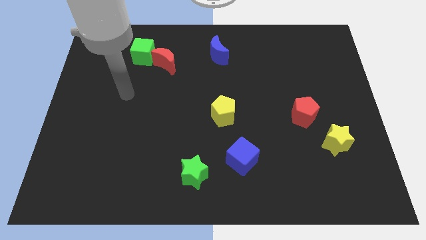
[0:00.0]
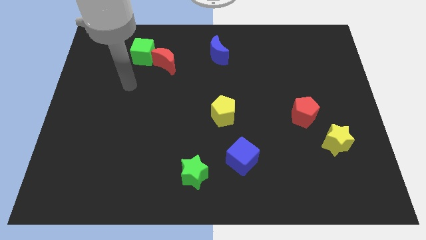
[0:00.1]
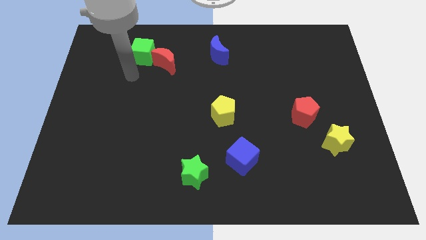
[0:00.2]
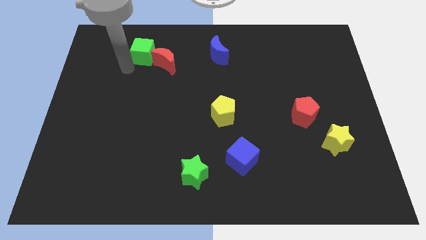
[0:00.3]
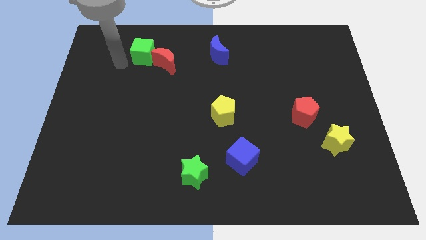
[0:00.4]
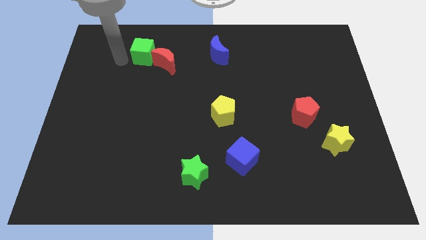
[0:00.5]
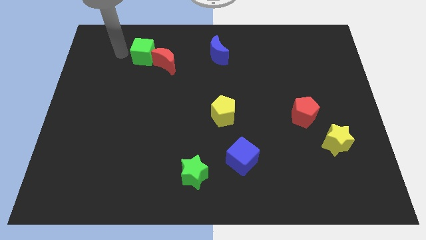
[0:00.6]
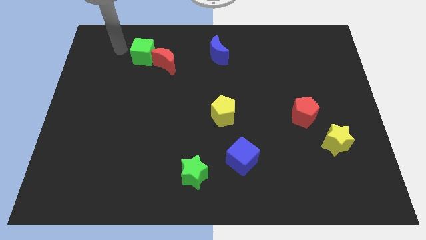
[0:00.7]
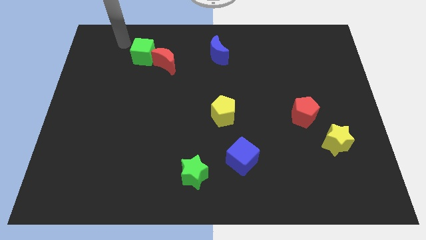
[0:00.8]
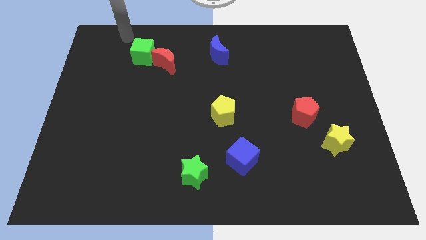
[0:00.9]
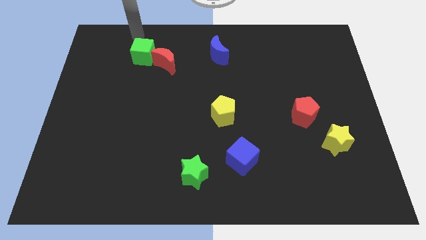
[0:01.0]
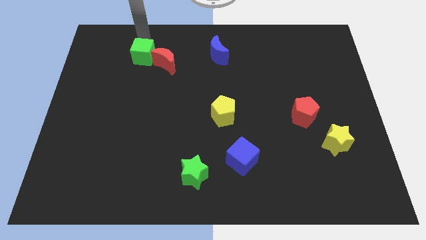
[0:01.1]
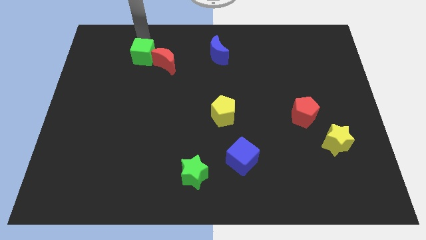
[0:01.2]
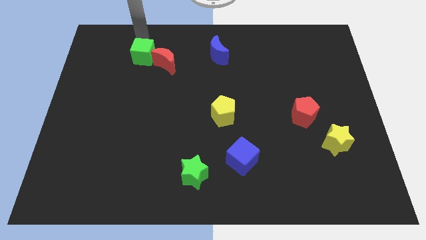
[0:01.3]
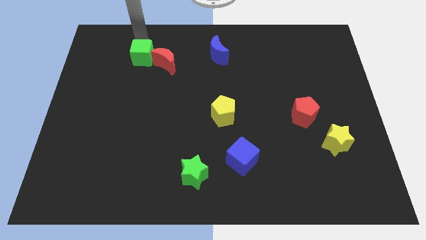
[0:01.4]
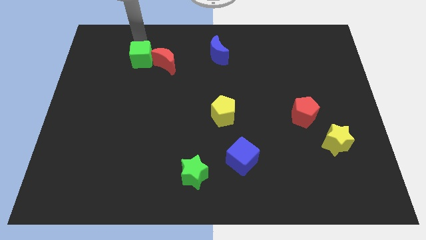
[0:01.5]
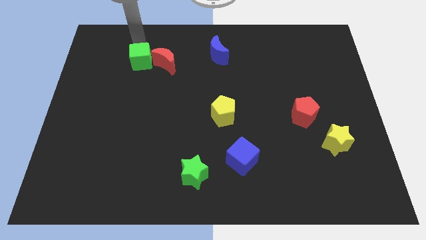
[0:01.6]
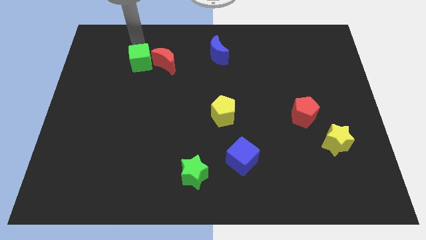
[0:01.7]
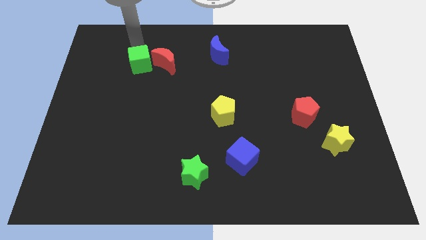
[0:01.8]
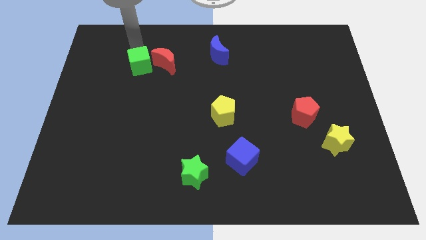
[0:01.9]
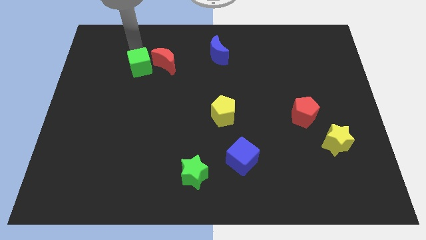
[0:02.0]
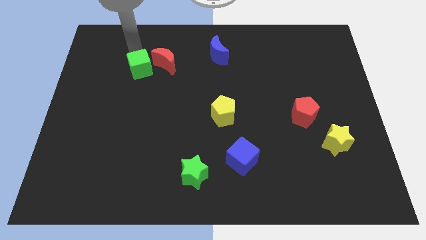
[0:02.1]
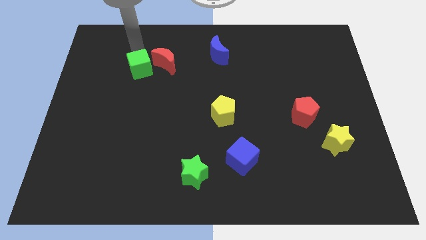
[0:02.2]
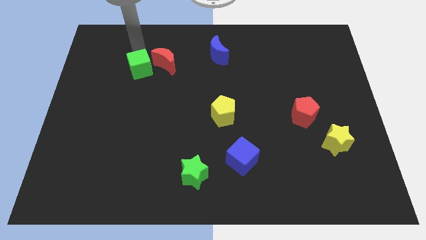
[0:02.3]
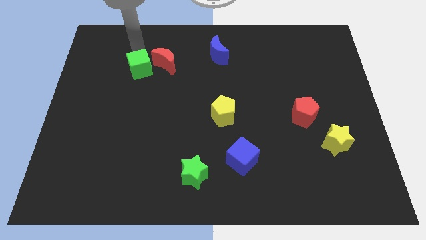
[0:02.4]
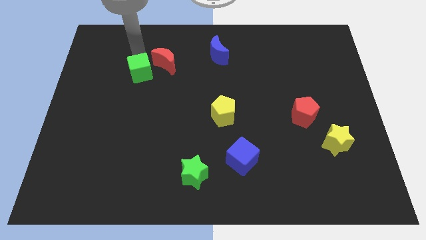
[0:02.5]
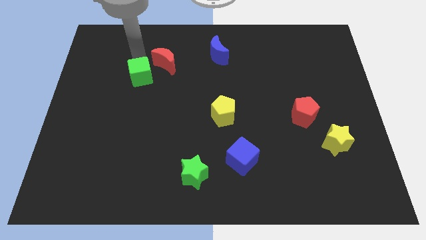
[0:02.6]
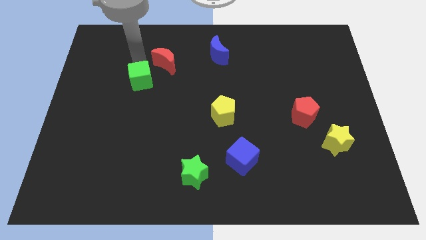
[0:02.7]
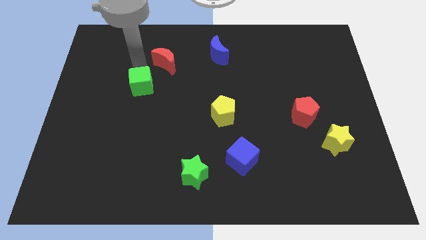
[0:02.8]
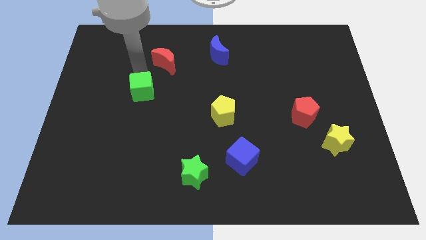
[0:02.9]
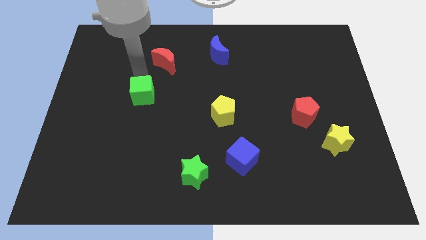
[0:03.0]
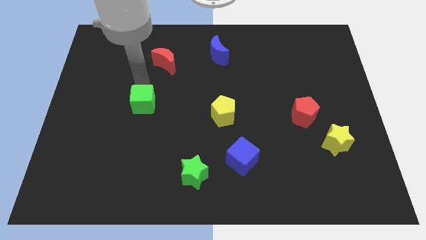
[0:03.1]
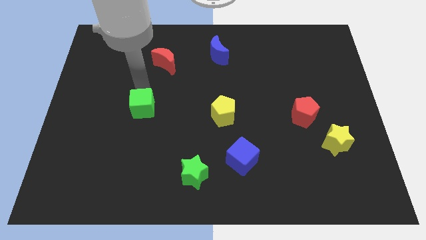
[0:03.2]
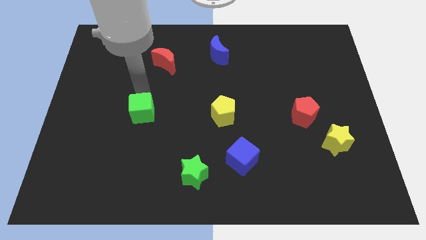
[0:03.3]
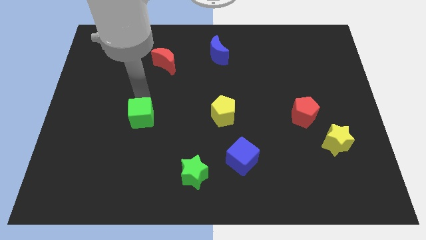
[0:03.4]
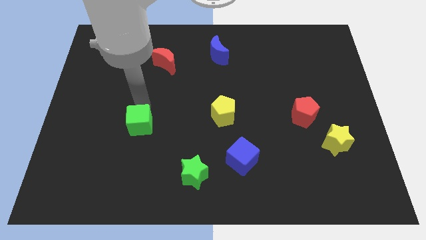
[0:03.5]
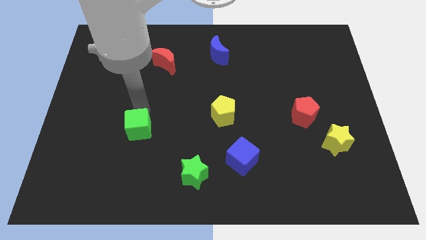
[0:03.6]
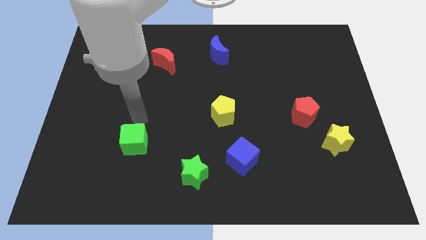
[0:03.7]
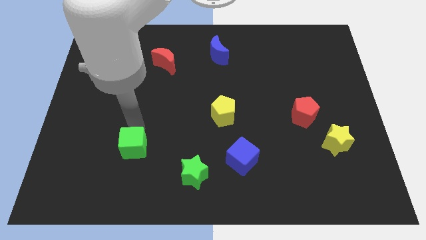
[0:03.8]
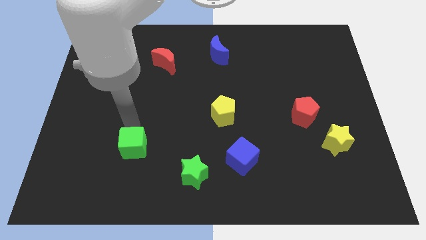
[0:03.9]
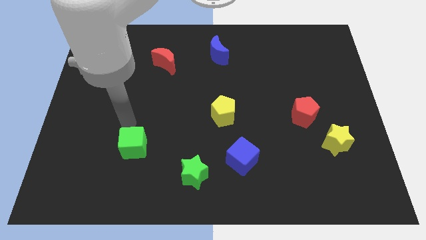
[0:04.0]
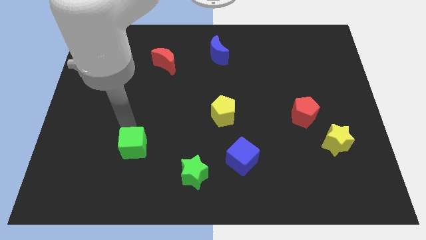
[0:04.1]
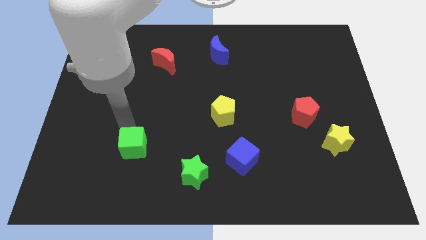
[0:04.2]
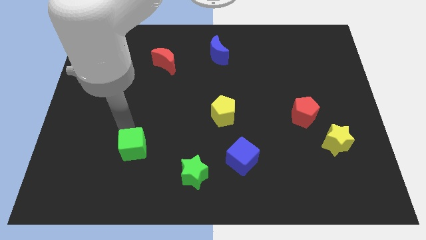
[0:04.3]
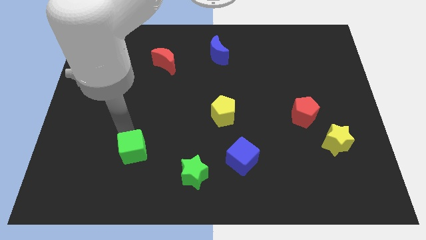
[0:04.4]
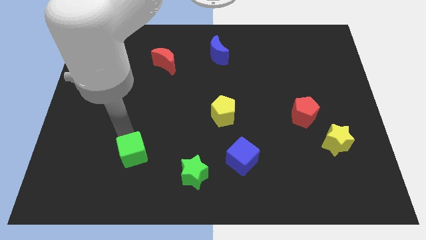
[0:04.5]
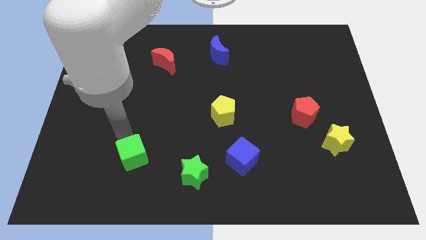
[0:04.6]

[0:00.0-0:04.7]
put the green cube to the left side of the green star

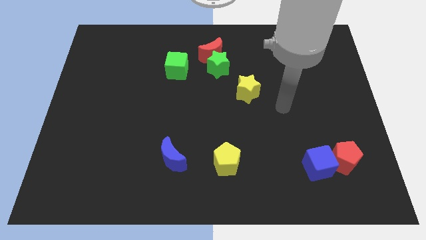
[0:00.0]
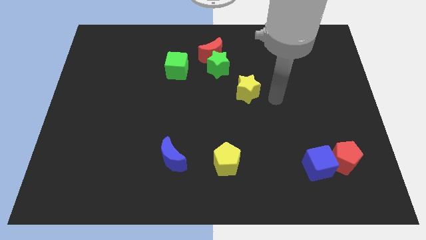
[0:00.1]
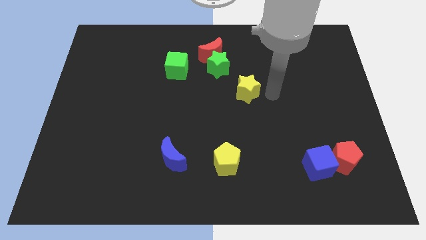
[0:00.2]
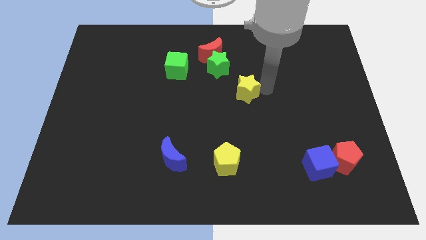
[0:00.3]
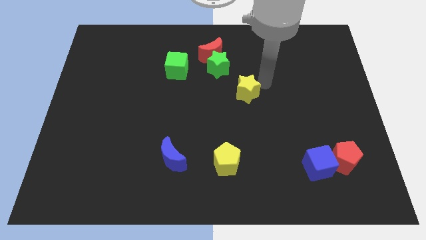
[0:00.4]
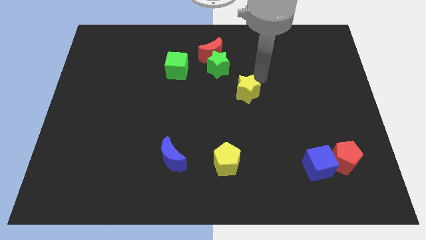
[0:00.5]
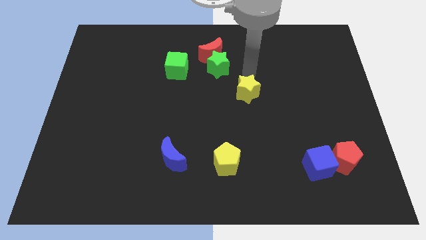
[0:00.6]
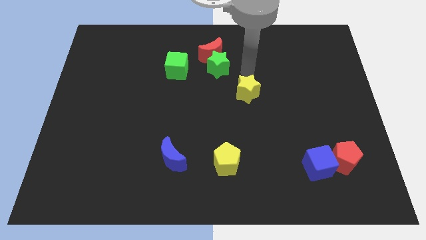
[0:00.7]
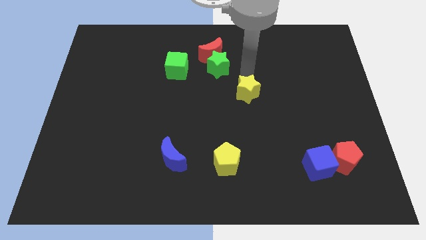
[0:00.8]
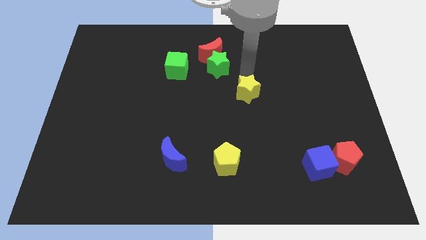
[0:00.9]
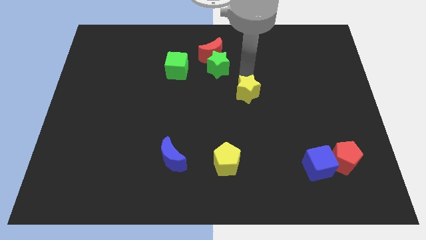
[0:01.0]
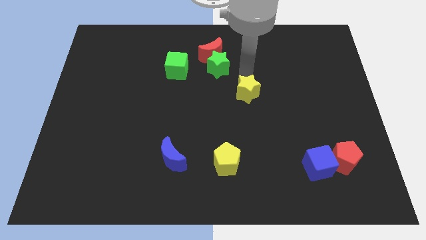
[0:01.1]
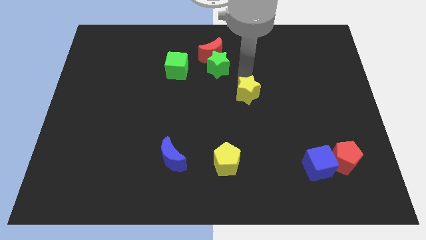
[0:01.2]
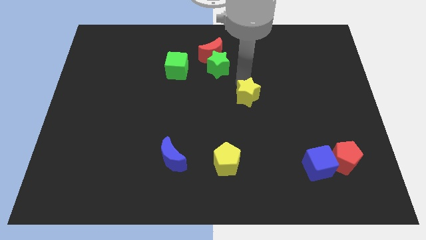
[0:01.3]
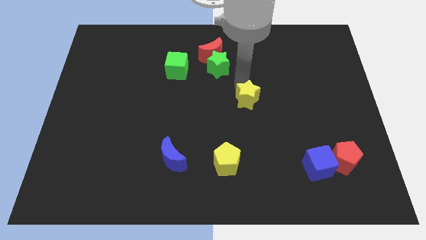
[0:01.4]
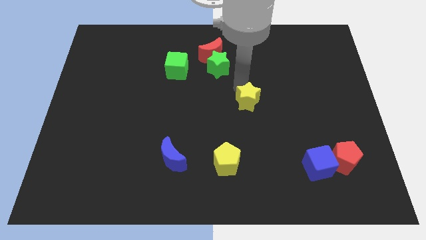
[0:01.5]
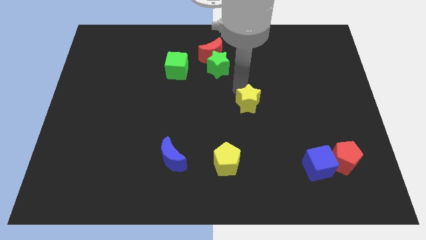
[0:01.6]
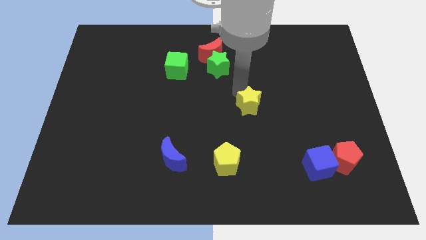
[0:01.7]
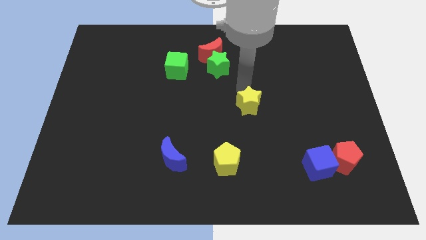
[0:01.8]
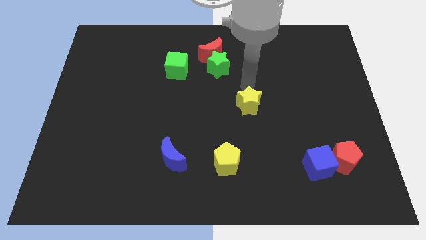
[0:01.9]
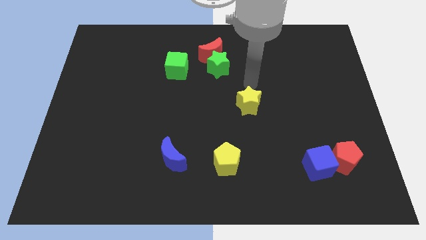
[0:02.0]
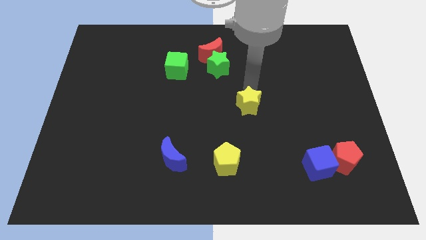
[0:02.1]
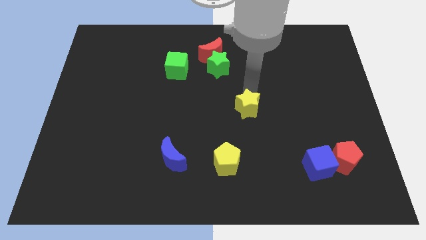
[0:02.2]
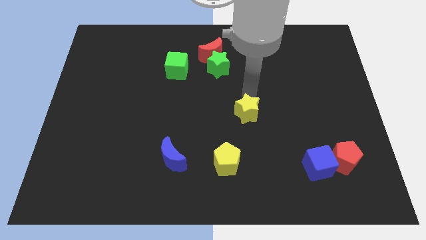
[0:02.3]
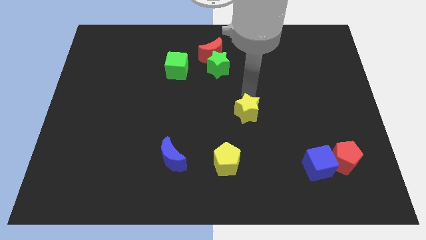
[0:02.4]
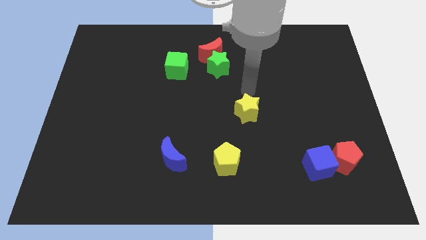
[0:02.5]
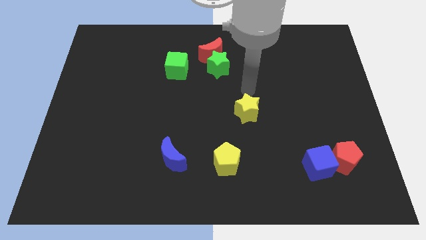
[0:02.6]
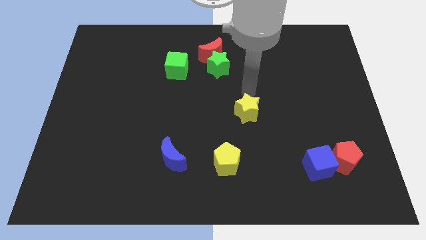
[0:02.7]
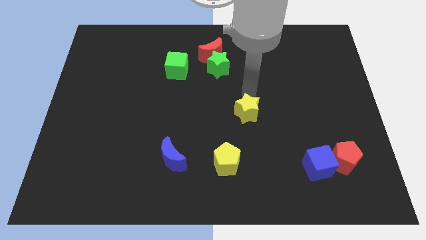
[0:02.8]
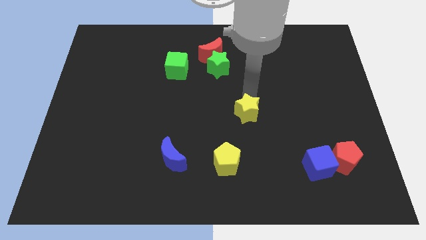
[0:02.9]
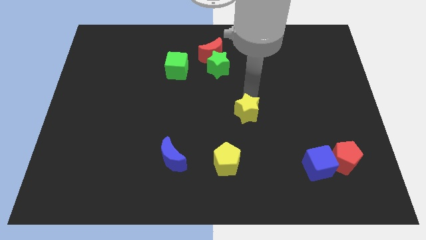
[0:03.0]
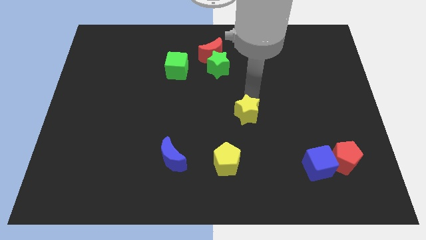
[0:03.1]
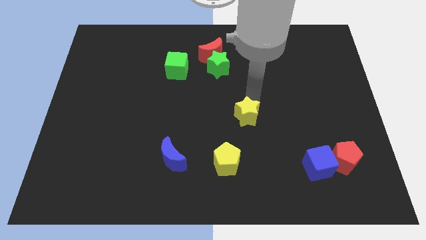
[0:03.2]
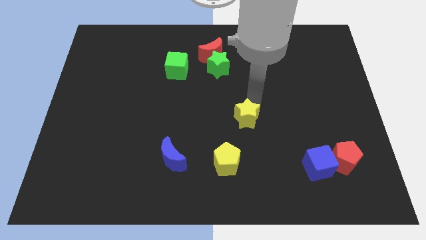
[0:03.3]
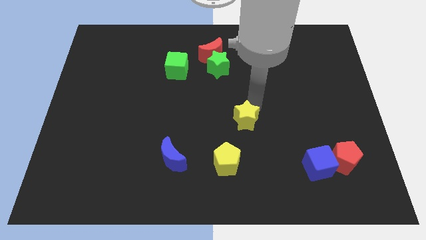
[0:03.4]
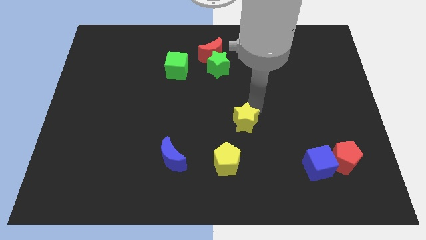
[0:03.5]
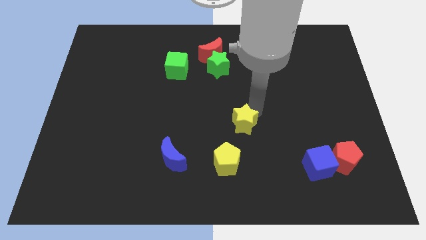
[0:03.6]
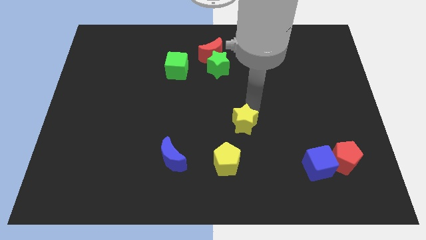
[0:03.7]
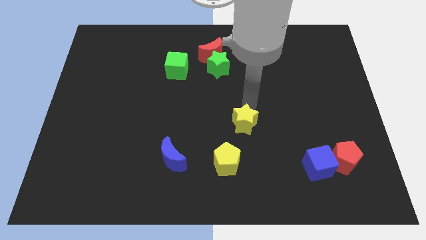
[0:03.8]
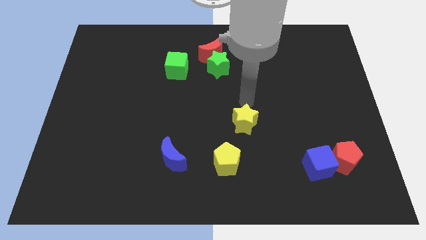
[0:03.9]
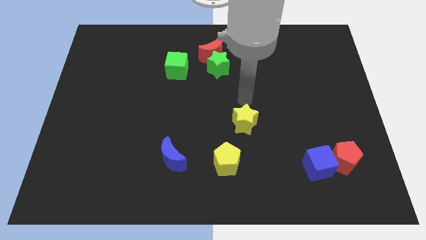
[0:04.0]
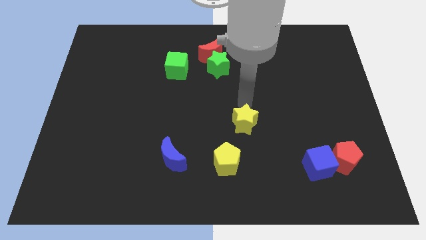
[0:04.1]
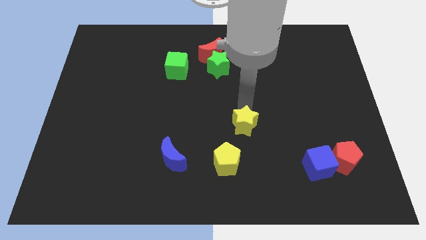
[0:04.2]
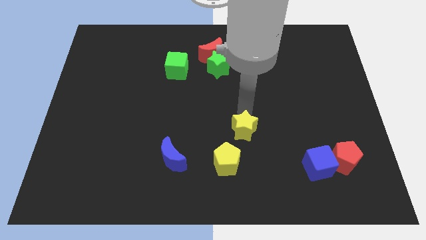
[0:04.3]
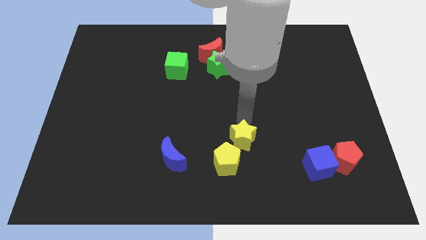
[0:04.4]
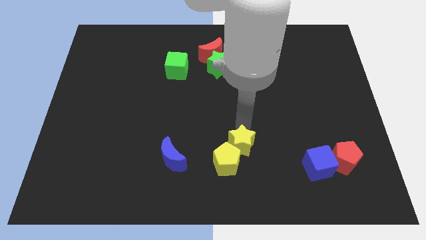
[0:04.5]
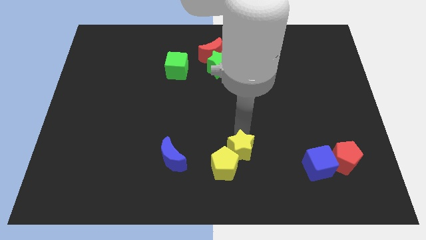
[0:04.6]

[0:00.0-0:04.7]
push the yellow star to the right of the blue moon
